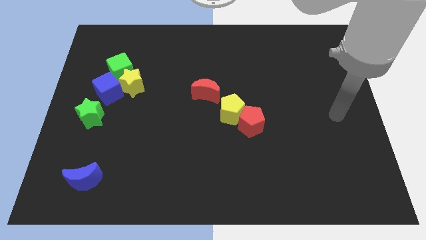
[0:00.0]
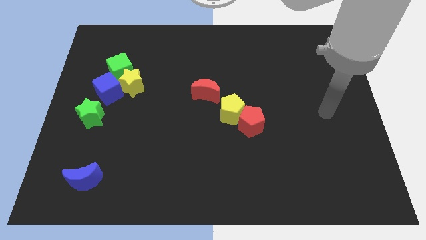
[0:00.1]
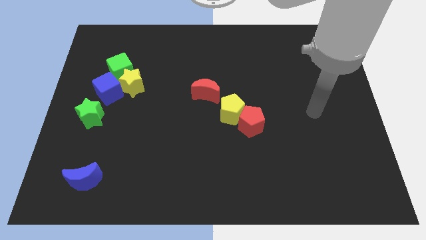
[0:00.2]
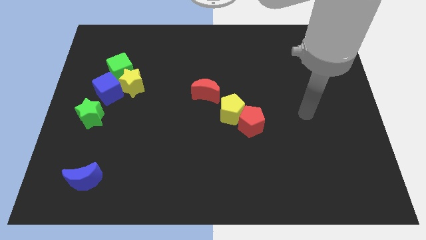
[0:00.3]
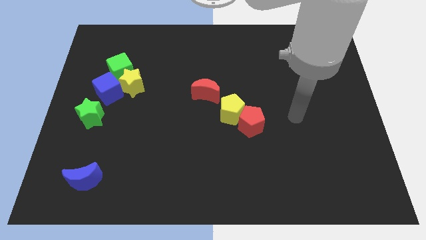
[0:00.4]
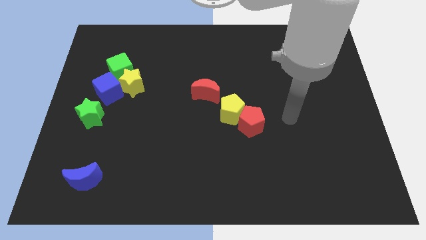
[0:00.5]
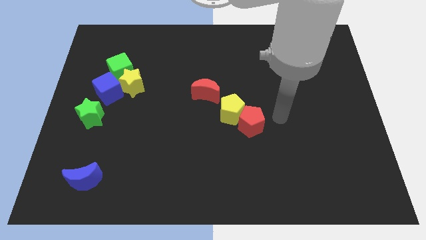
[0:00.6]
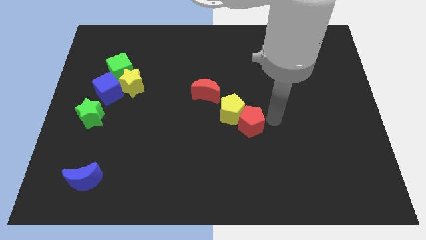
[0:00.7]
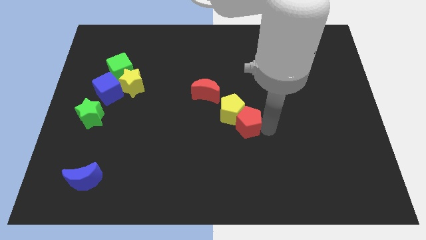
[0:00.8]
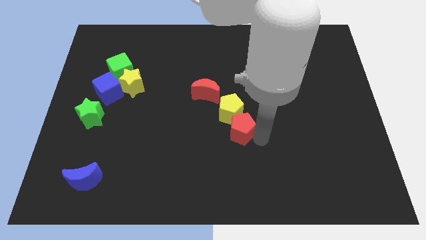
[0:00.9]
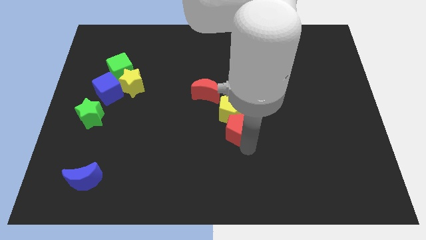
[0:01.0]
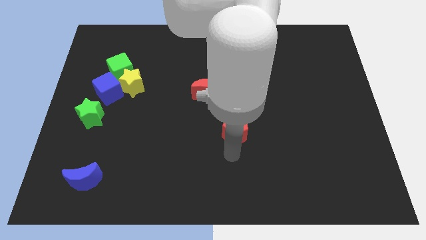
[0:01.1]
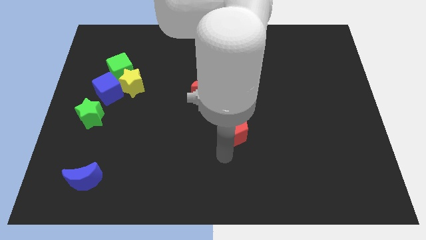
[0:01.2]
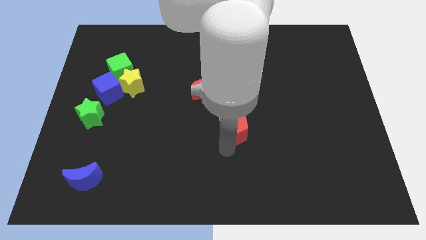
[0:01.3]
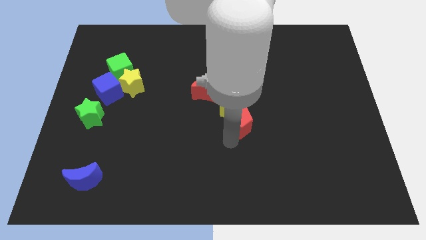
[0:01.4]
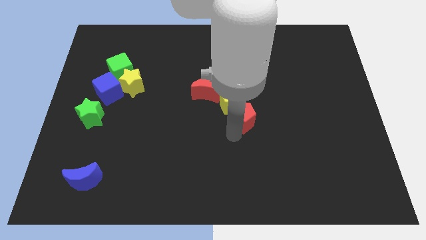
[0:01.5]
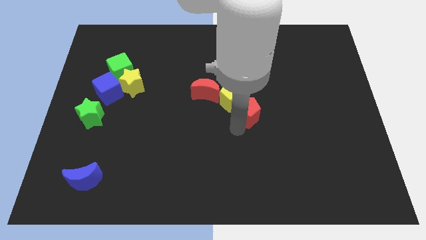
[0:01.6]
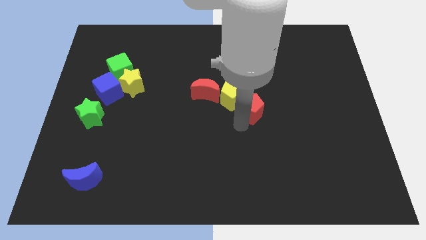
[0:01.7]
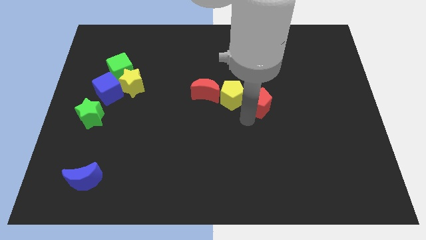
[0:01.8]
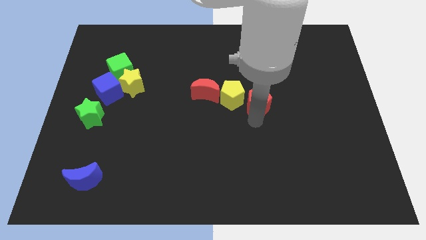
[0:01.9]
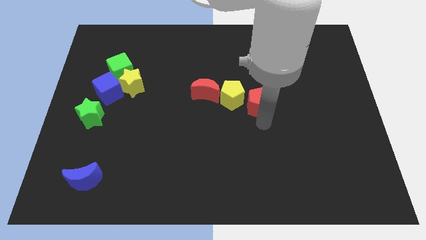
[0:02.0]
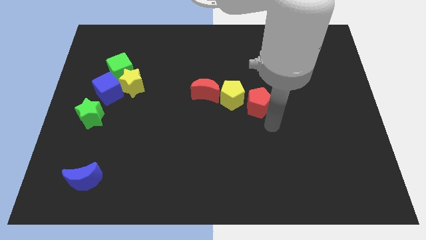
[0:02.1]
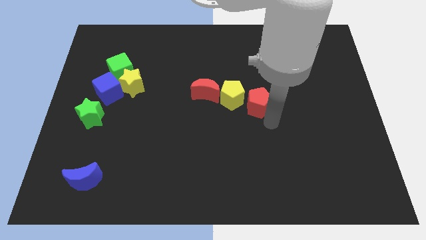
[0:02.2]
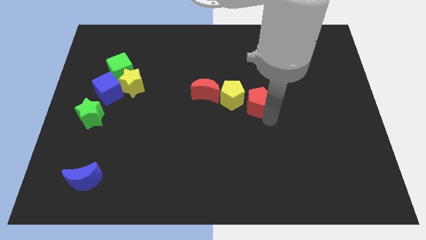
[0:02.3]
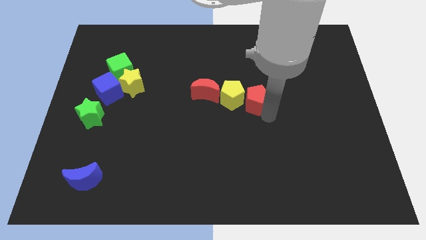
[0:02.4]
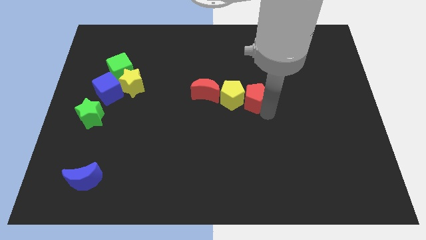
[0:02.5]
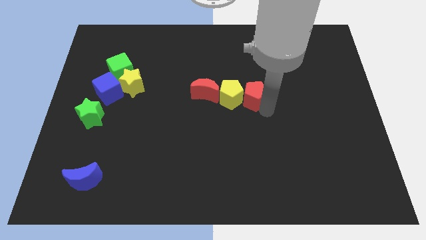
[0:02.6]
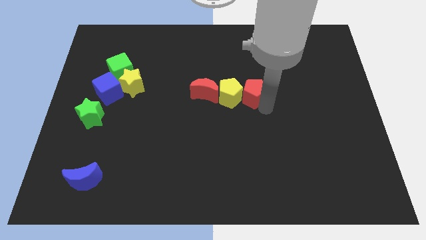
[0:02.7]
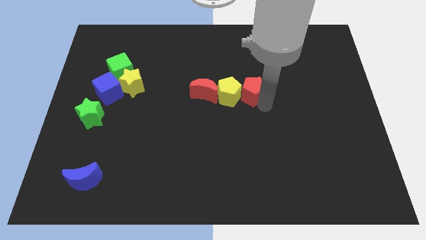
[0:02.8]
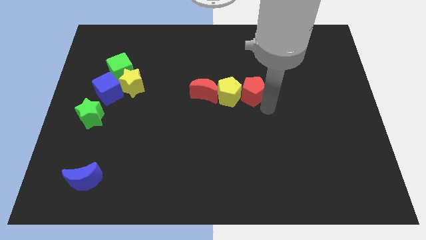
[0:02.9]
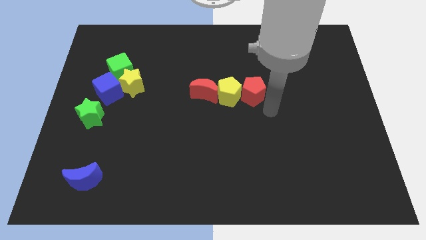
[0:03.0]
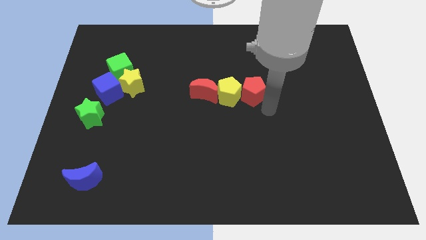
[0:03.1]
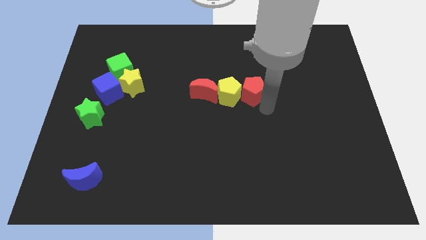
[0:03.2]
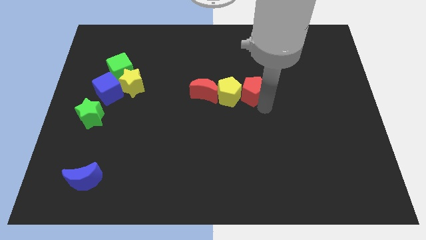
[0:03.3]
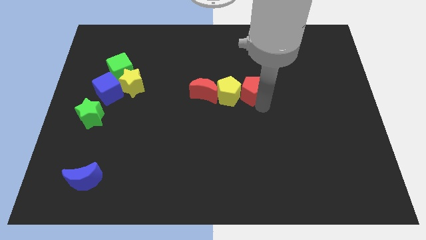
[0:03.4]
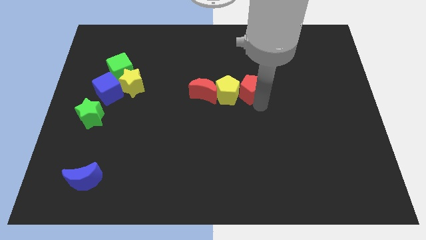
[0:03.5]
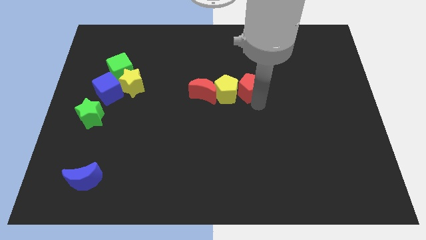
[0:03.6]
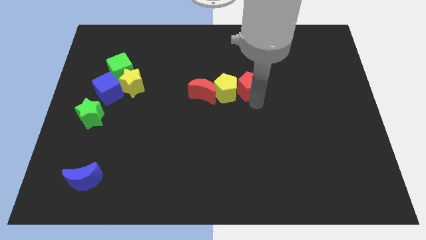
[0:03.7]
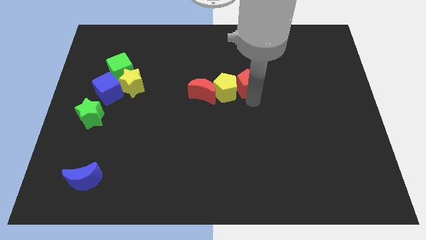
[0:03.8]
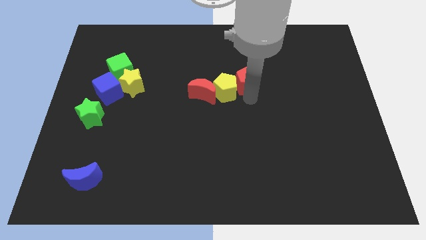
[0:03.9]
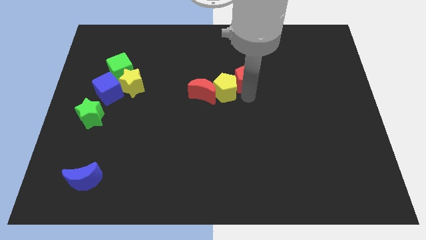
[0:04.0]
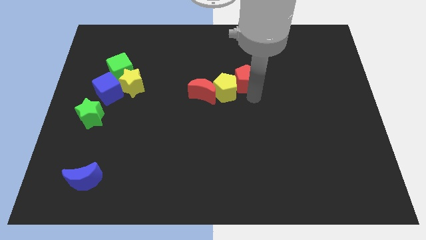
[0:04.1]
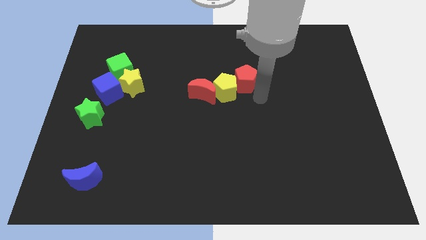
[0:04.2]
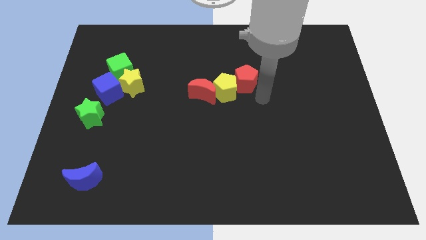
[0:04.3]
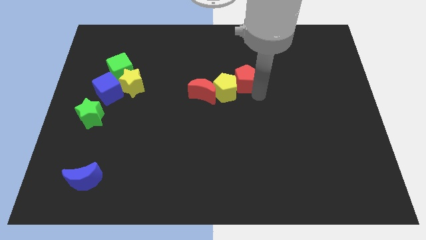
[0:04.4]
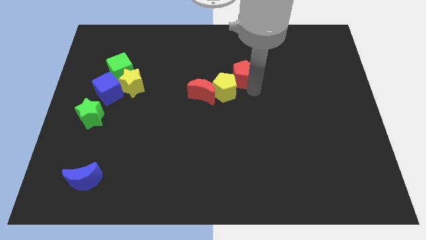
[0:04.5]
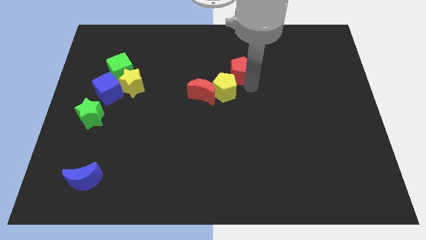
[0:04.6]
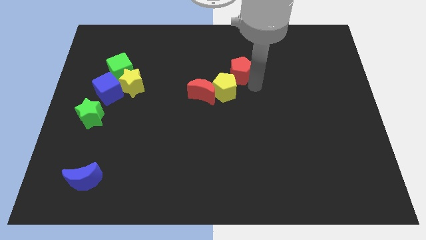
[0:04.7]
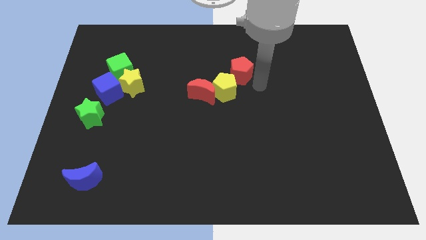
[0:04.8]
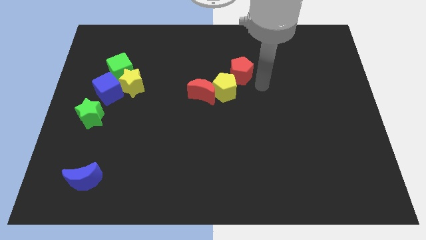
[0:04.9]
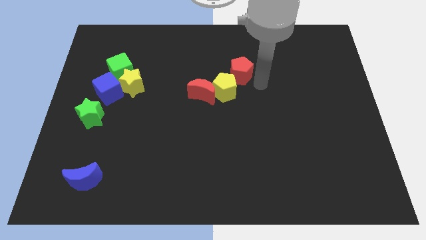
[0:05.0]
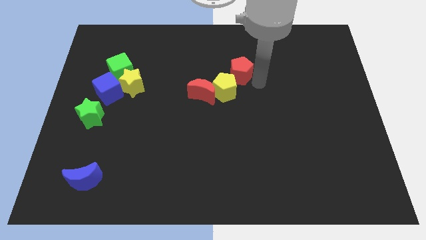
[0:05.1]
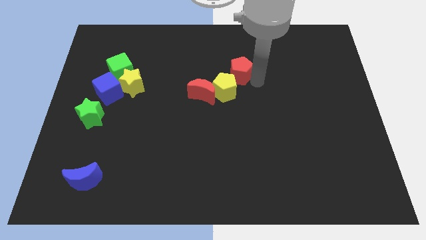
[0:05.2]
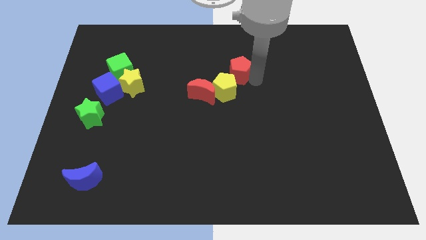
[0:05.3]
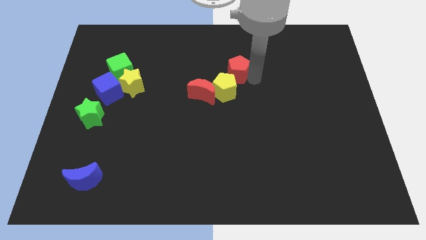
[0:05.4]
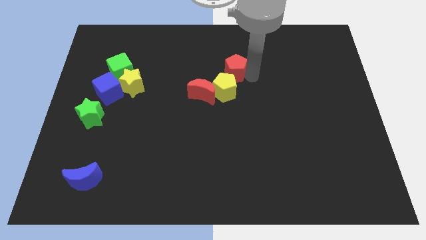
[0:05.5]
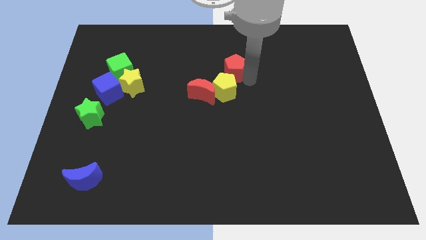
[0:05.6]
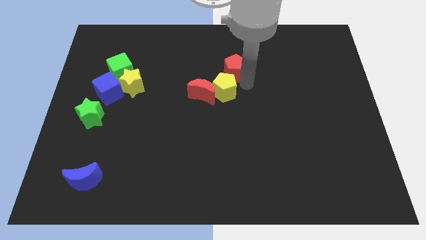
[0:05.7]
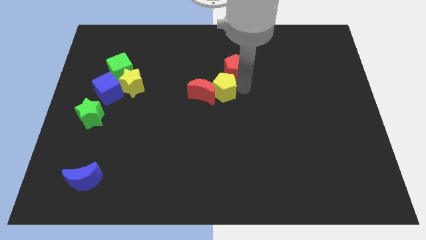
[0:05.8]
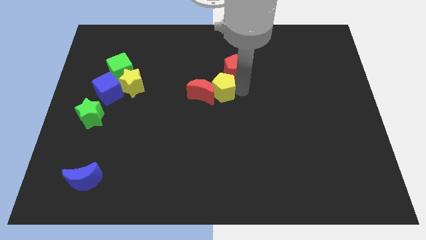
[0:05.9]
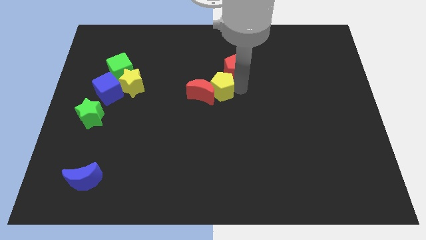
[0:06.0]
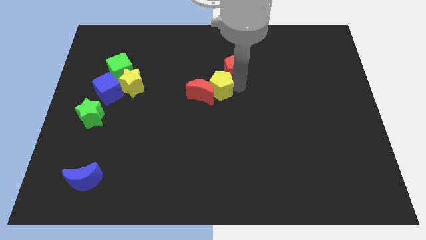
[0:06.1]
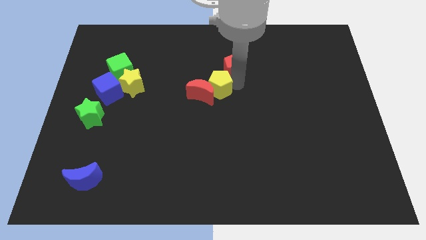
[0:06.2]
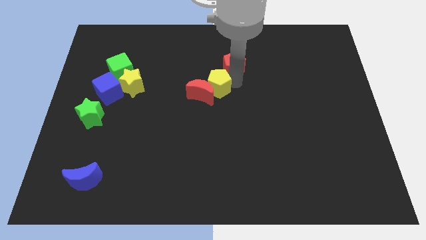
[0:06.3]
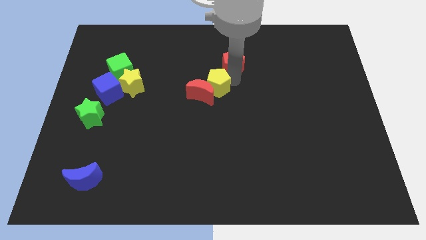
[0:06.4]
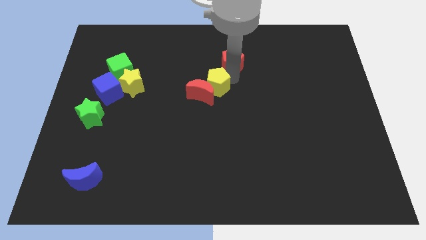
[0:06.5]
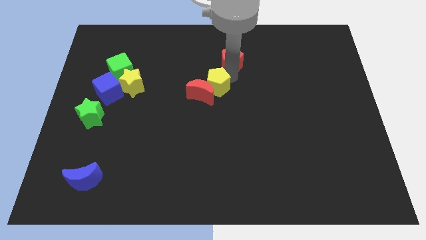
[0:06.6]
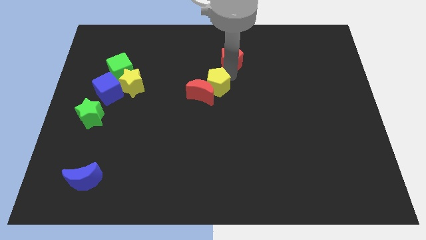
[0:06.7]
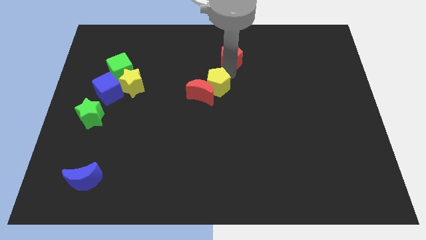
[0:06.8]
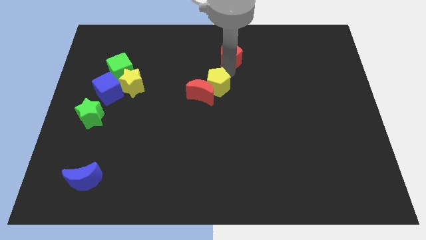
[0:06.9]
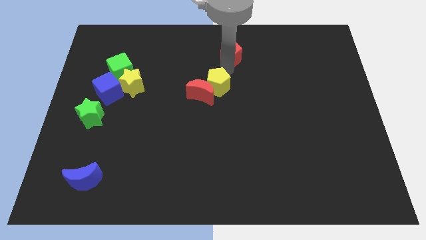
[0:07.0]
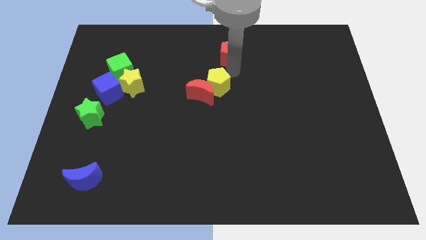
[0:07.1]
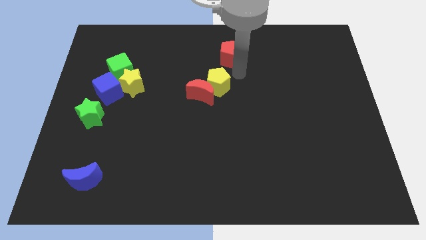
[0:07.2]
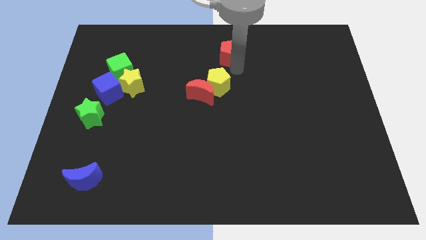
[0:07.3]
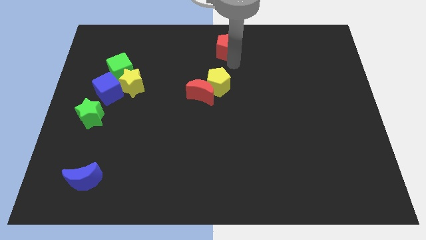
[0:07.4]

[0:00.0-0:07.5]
put the red pentagon to the top
